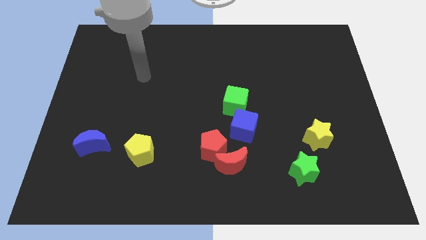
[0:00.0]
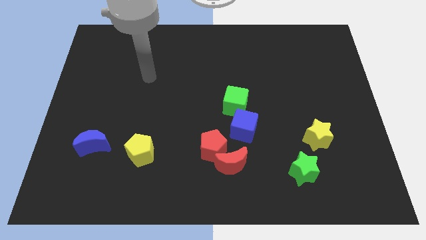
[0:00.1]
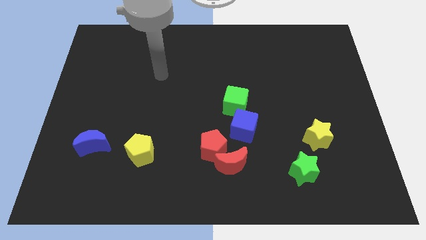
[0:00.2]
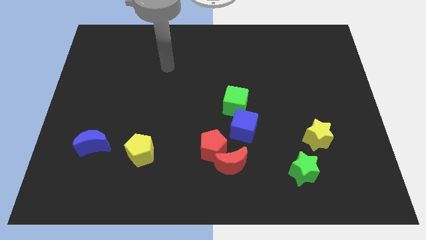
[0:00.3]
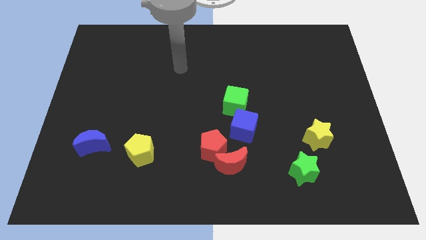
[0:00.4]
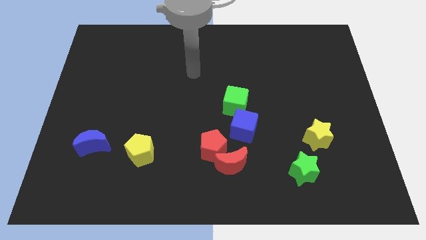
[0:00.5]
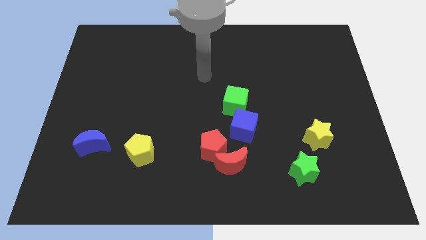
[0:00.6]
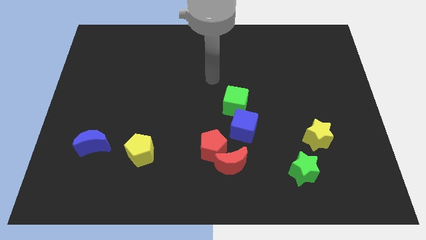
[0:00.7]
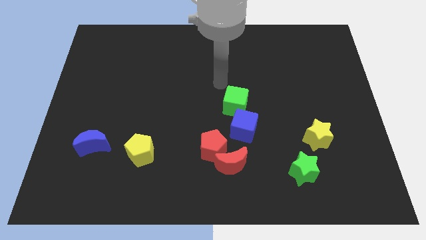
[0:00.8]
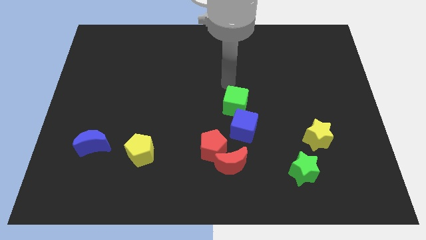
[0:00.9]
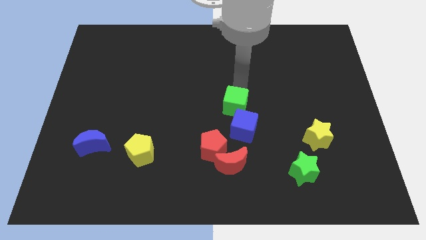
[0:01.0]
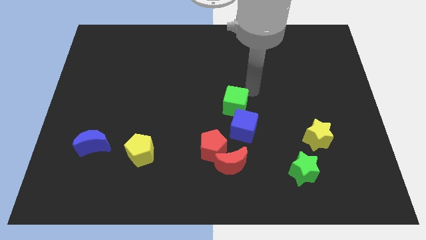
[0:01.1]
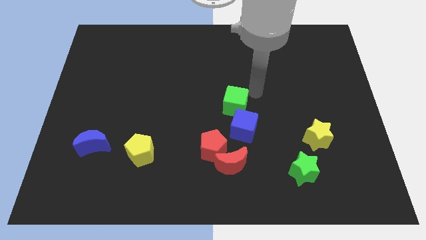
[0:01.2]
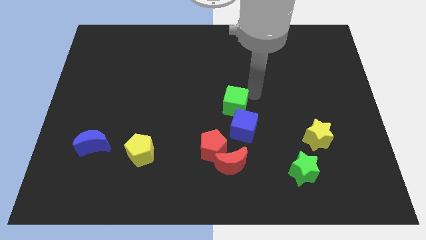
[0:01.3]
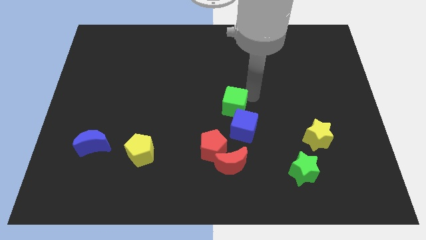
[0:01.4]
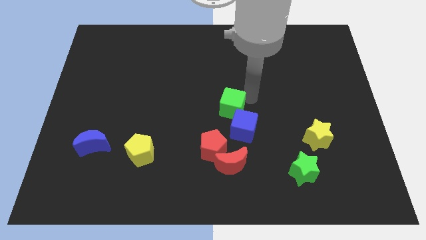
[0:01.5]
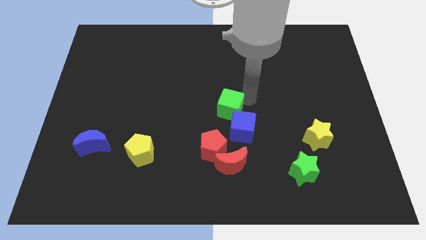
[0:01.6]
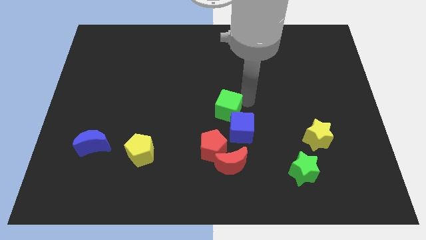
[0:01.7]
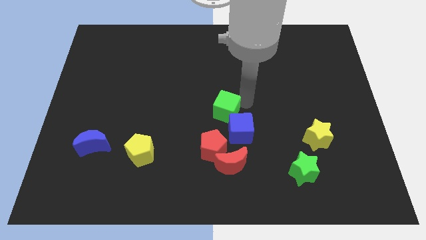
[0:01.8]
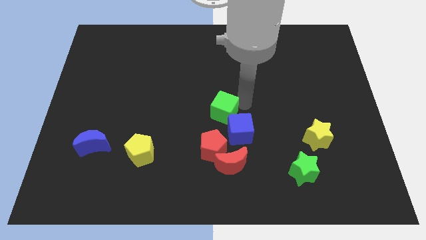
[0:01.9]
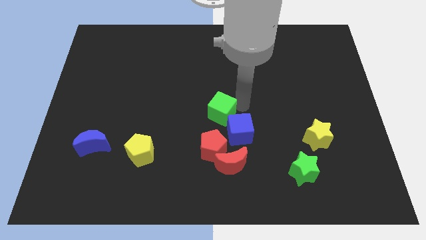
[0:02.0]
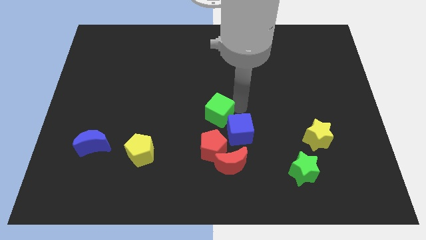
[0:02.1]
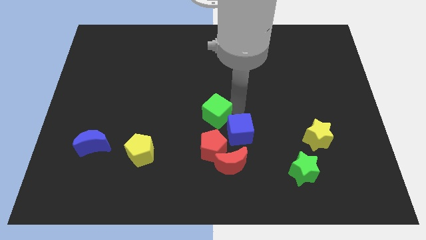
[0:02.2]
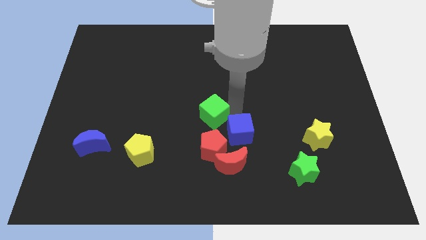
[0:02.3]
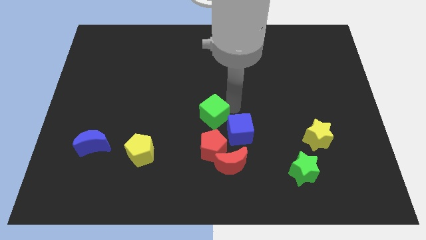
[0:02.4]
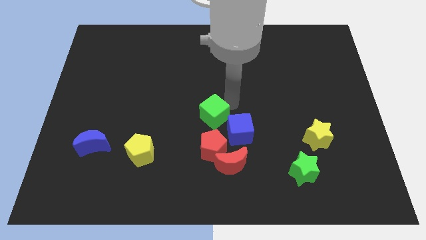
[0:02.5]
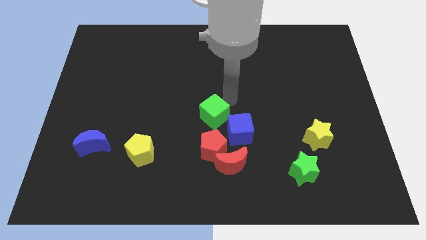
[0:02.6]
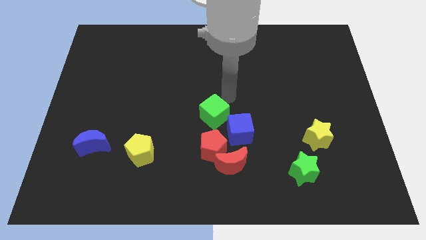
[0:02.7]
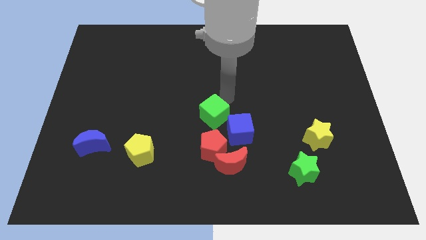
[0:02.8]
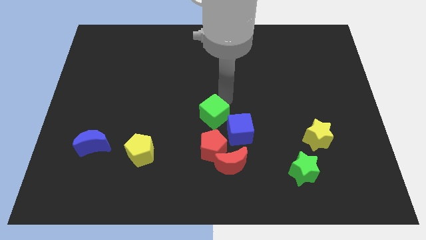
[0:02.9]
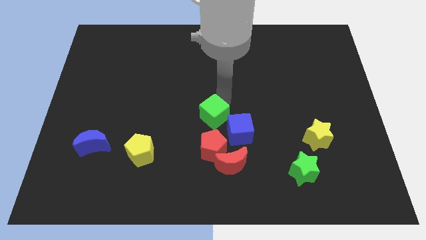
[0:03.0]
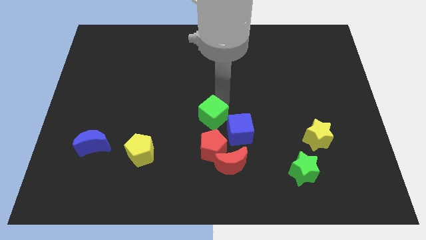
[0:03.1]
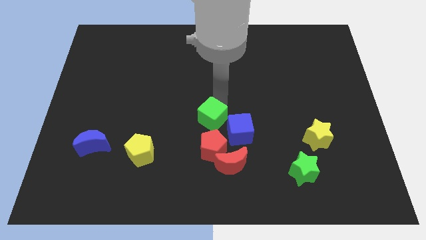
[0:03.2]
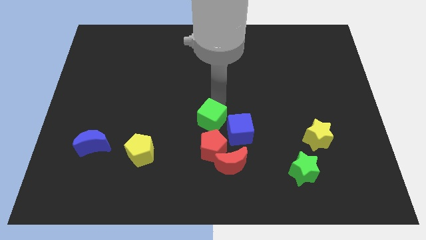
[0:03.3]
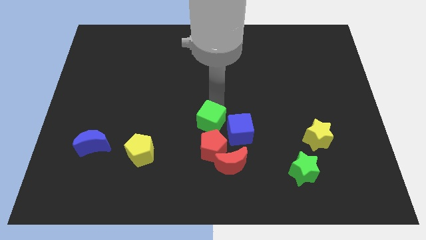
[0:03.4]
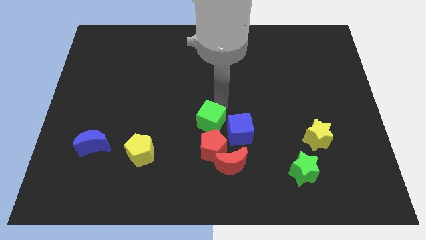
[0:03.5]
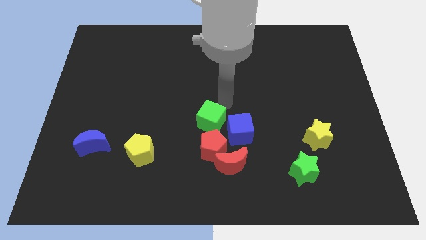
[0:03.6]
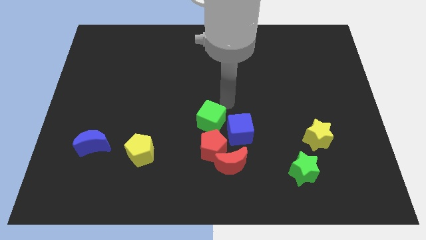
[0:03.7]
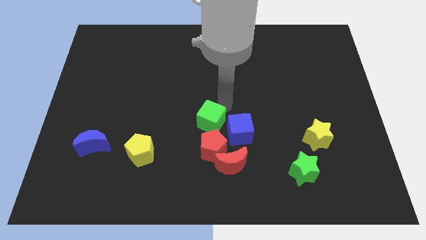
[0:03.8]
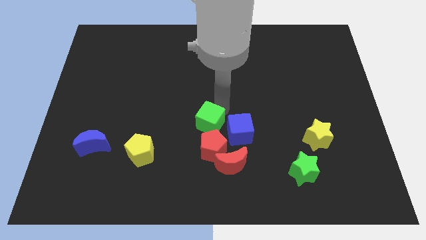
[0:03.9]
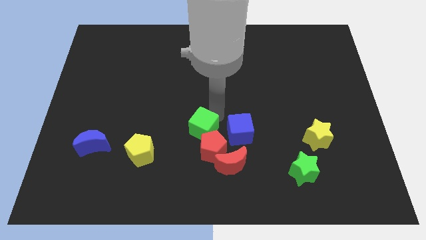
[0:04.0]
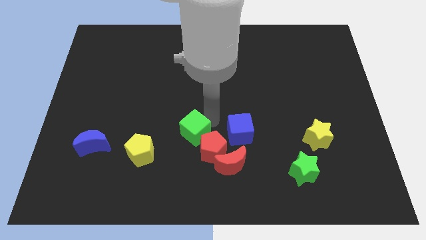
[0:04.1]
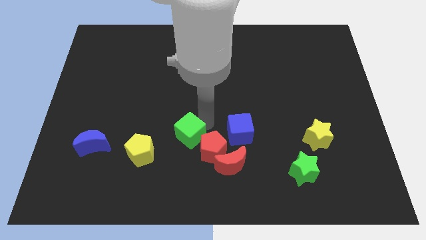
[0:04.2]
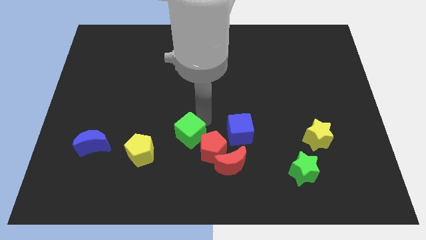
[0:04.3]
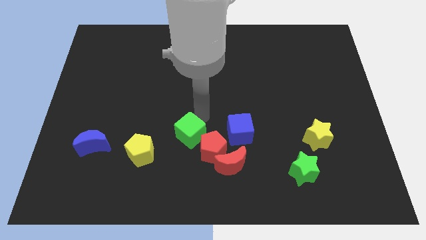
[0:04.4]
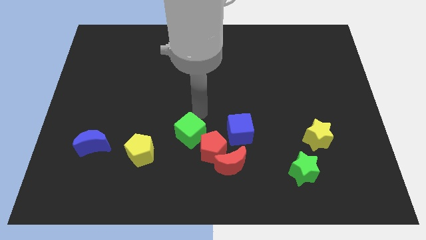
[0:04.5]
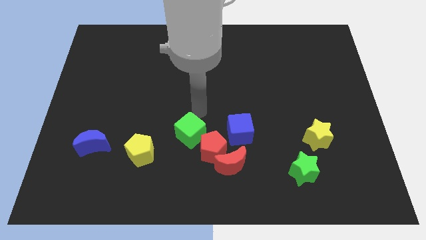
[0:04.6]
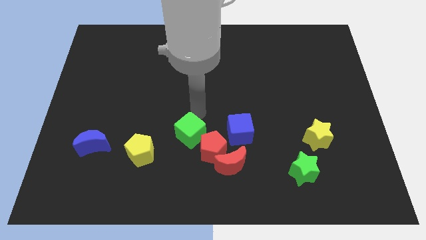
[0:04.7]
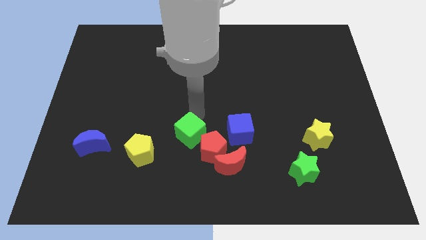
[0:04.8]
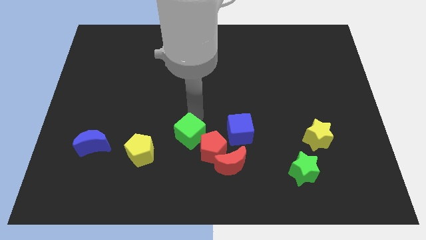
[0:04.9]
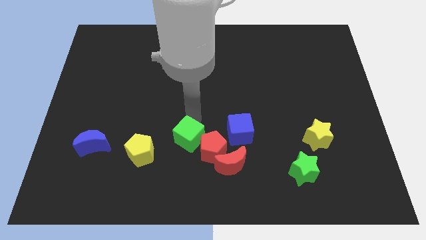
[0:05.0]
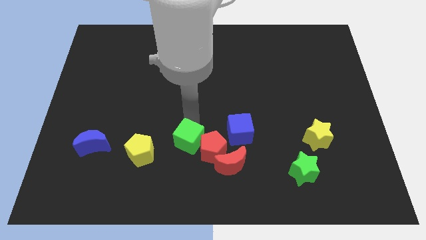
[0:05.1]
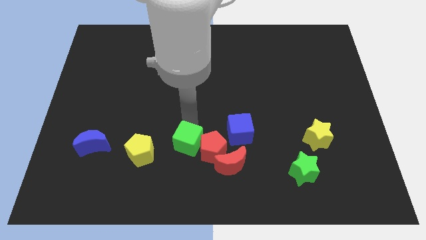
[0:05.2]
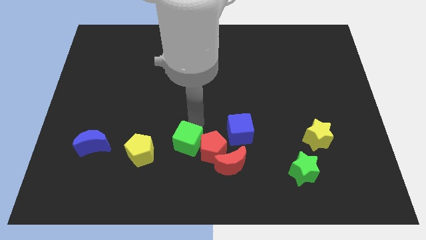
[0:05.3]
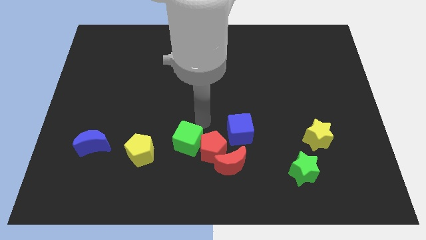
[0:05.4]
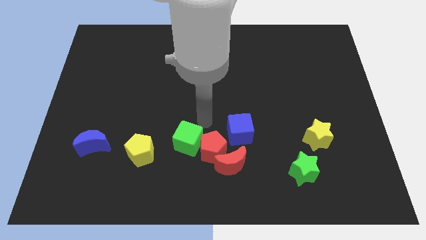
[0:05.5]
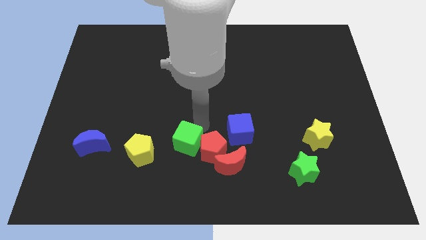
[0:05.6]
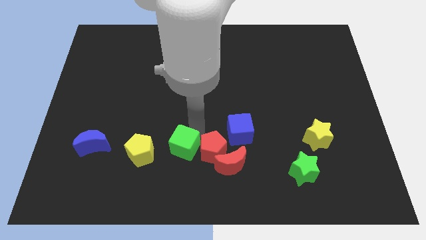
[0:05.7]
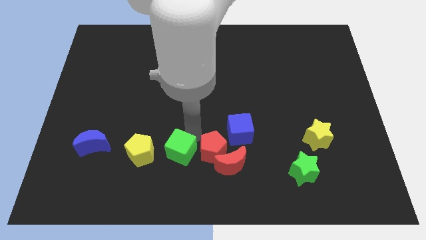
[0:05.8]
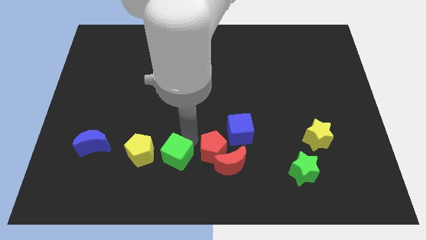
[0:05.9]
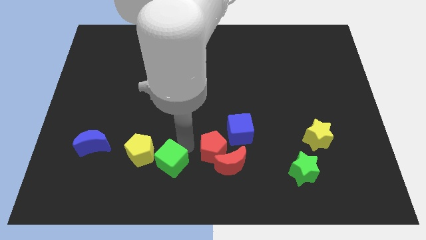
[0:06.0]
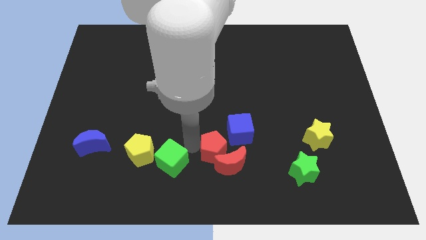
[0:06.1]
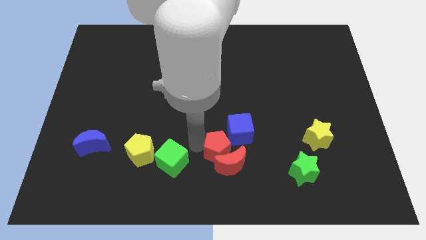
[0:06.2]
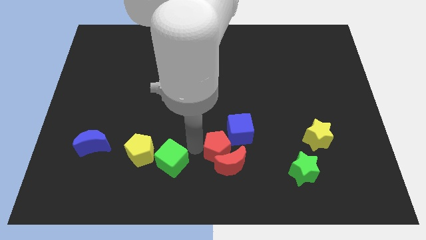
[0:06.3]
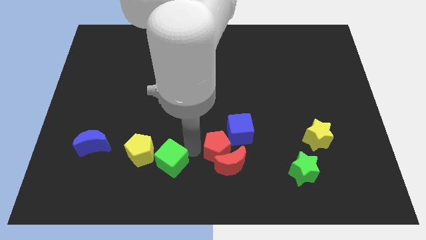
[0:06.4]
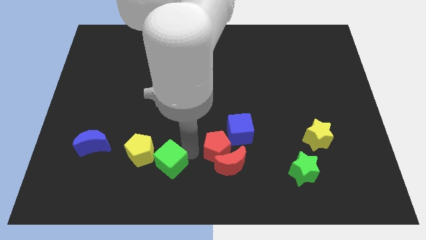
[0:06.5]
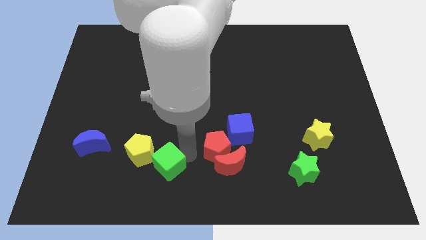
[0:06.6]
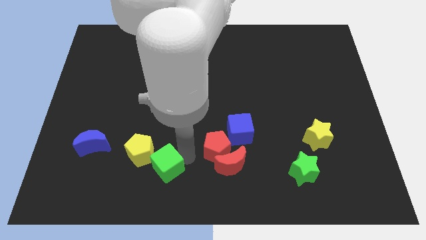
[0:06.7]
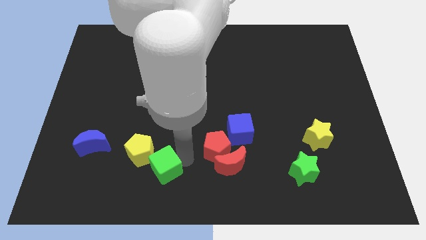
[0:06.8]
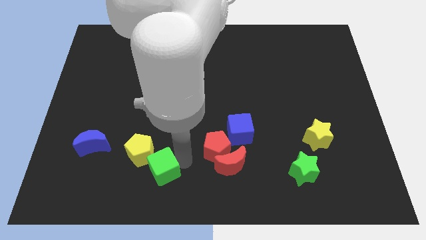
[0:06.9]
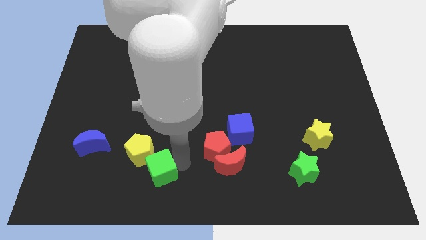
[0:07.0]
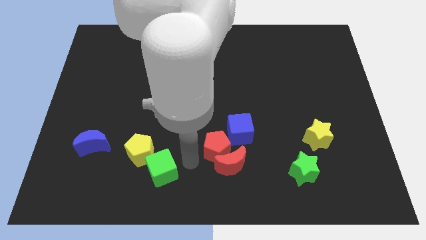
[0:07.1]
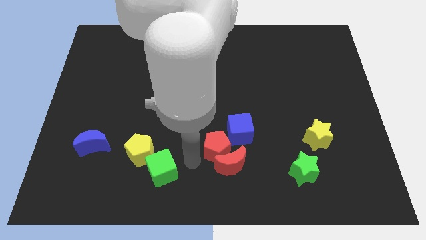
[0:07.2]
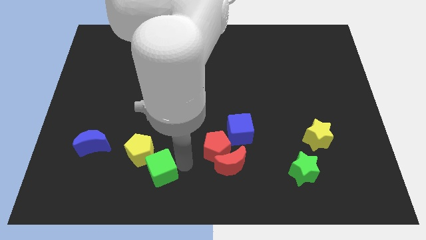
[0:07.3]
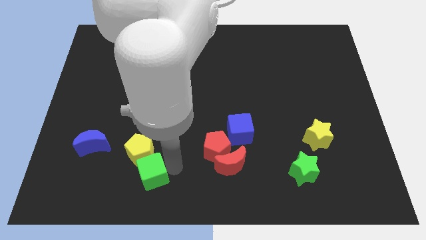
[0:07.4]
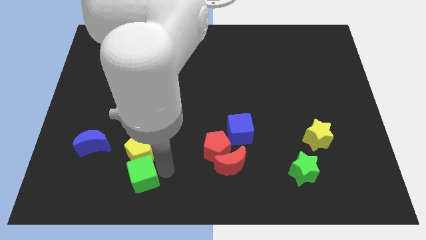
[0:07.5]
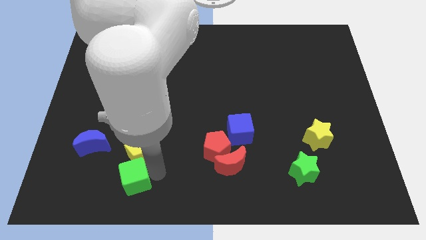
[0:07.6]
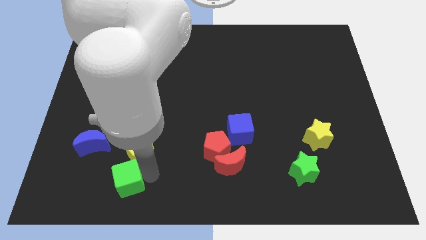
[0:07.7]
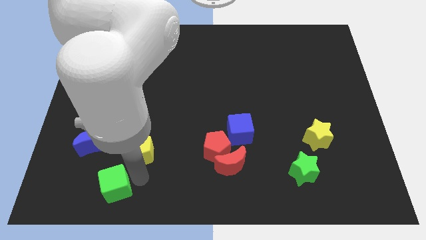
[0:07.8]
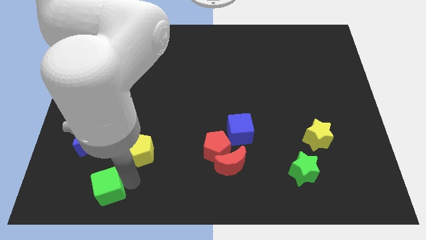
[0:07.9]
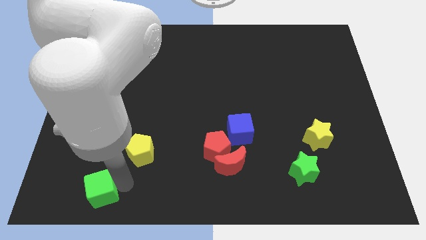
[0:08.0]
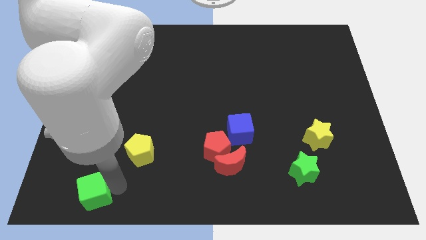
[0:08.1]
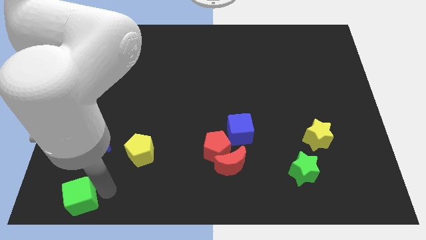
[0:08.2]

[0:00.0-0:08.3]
put the green cube to the bottom left
